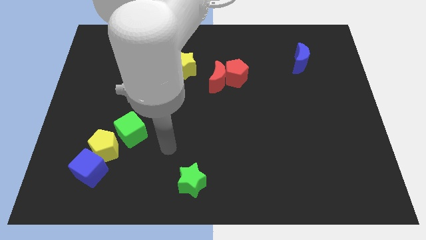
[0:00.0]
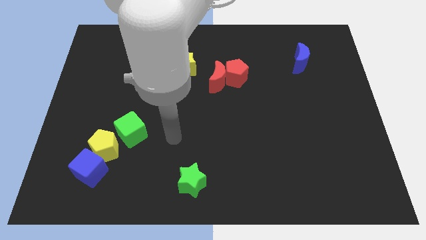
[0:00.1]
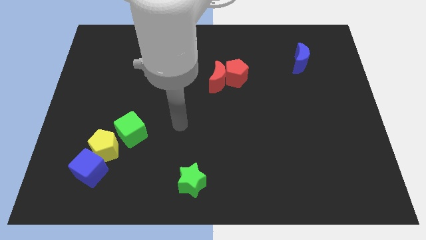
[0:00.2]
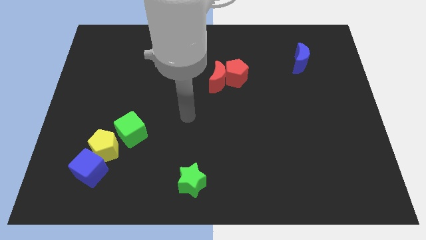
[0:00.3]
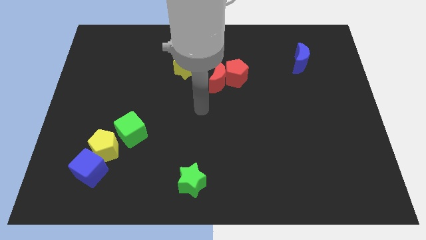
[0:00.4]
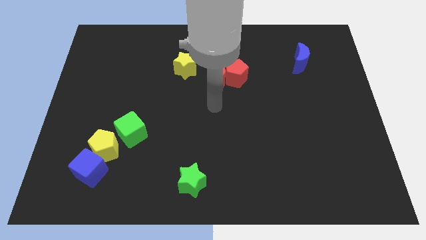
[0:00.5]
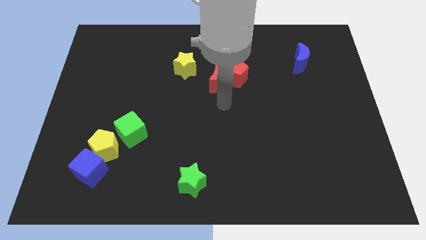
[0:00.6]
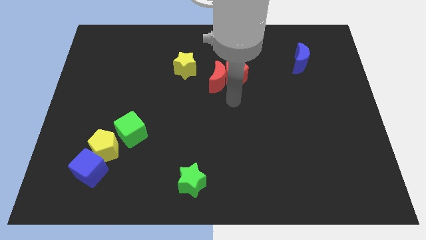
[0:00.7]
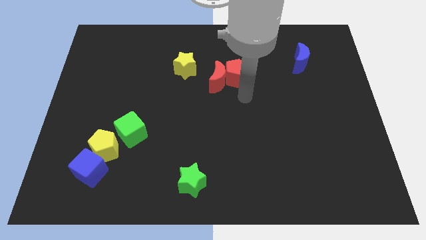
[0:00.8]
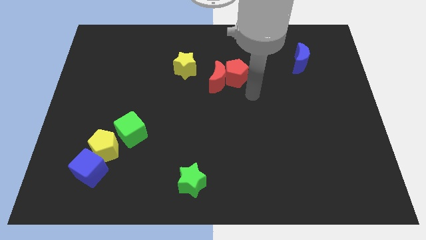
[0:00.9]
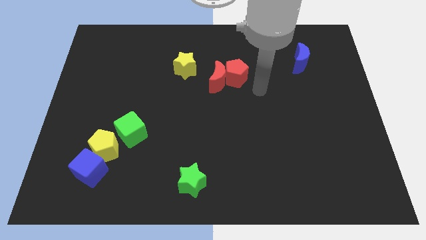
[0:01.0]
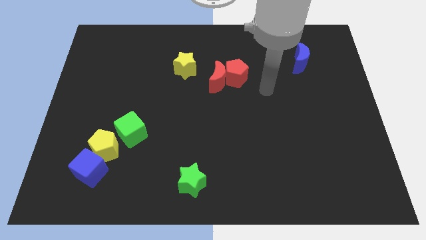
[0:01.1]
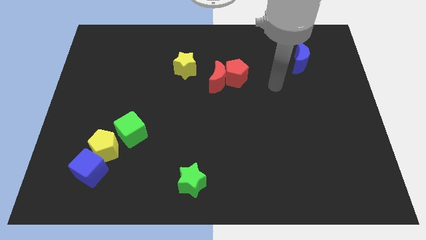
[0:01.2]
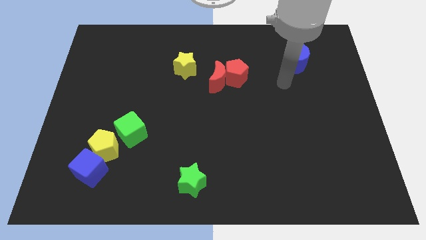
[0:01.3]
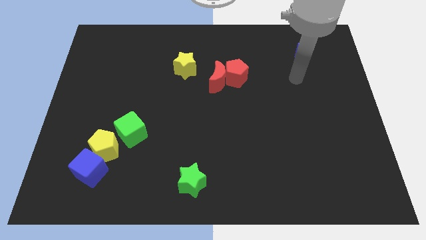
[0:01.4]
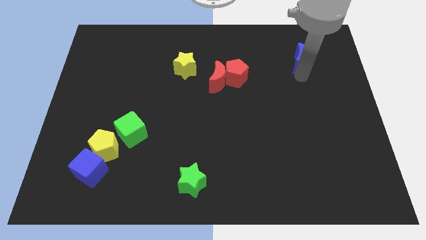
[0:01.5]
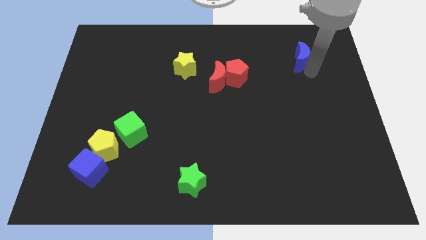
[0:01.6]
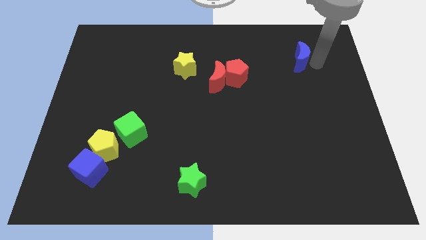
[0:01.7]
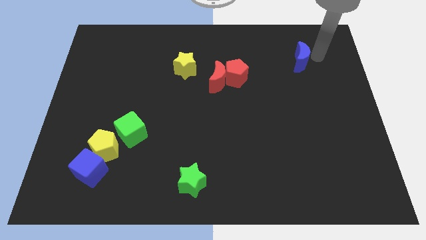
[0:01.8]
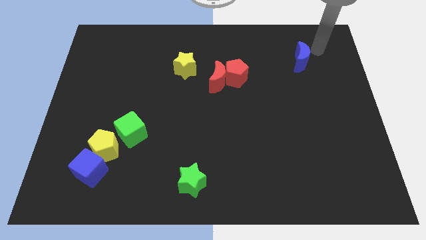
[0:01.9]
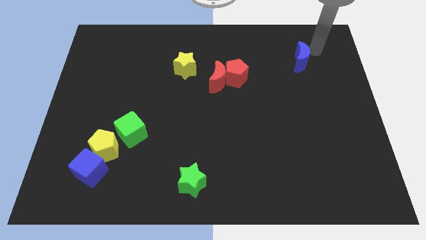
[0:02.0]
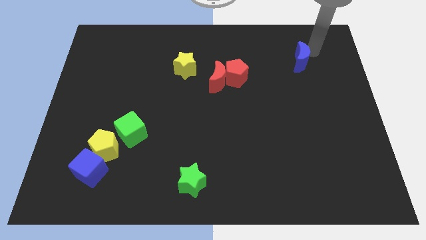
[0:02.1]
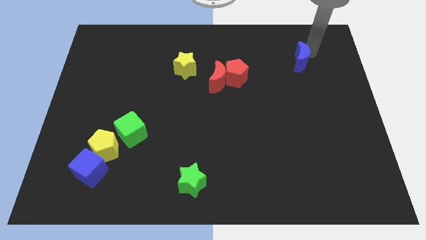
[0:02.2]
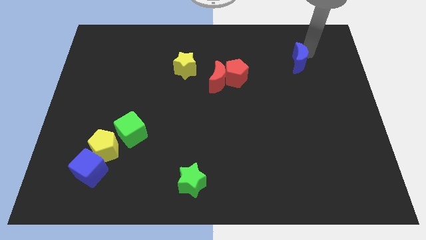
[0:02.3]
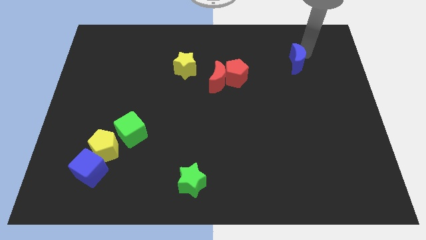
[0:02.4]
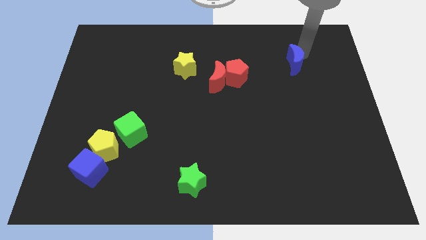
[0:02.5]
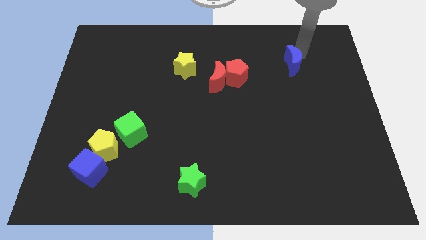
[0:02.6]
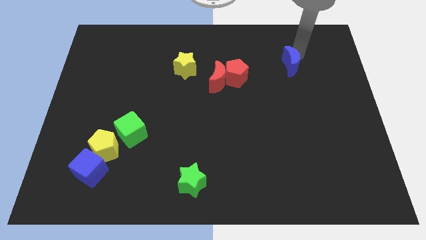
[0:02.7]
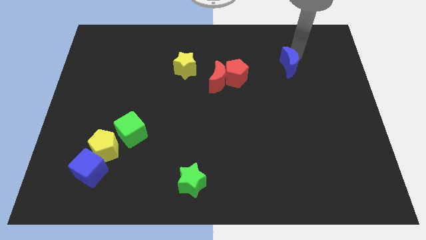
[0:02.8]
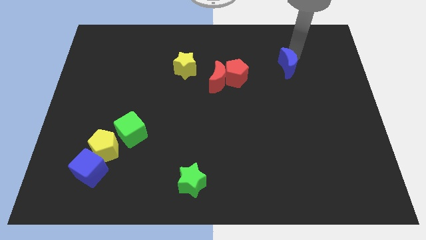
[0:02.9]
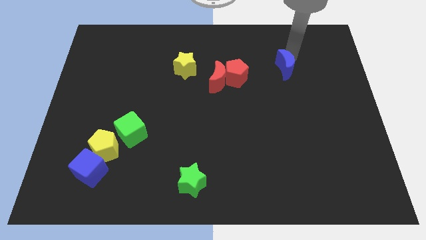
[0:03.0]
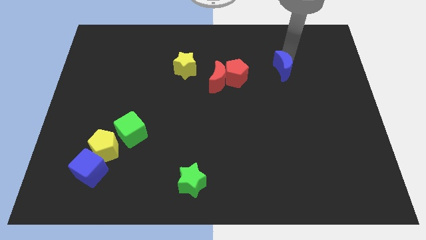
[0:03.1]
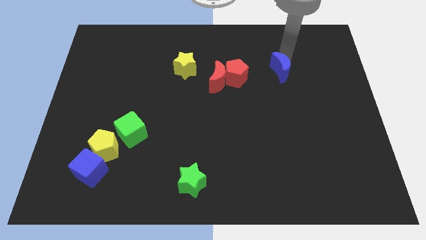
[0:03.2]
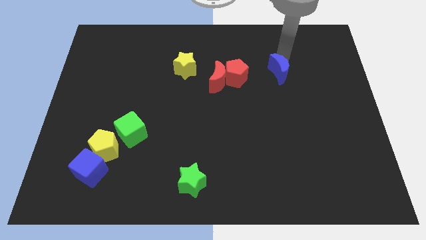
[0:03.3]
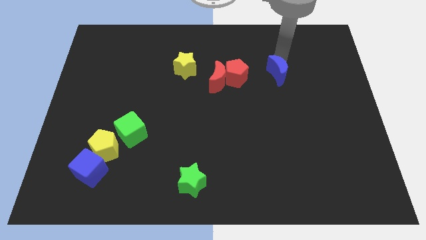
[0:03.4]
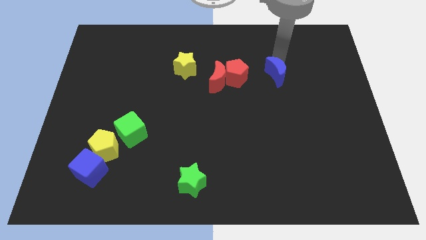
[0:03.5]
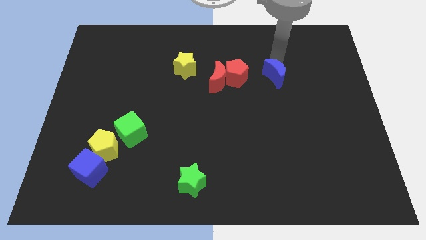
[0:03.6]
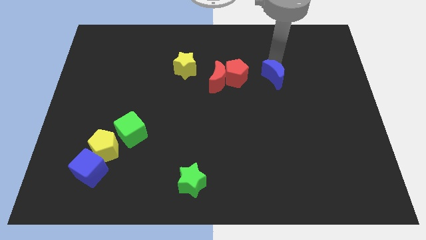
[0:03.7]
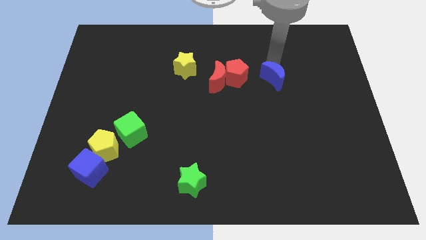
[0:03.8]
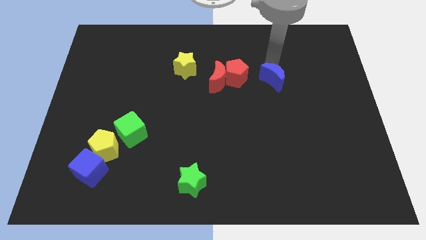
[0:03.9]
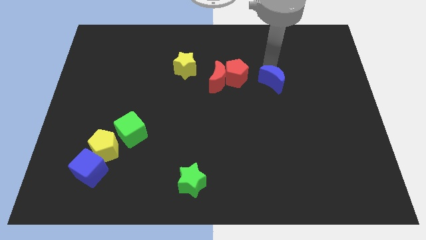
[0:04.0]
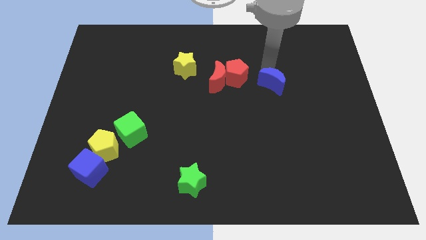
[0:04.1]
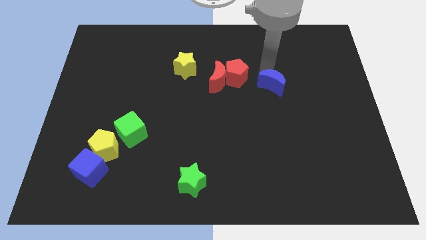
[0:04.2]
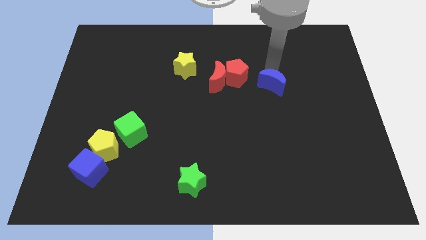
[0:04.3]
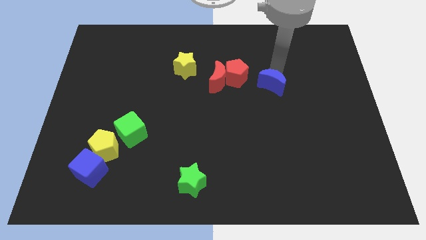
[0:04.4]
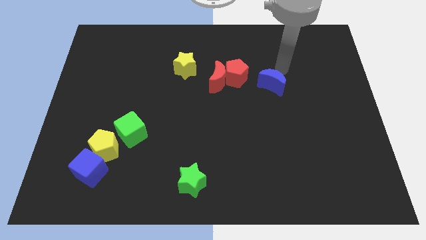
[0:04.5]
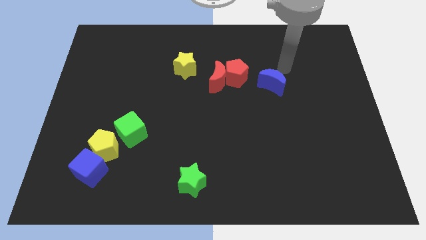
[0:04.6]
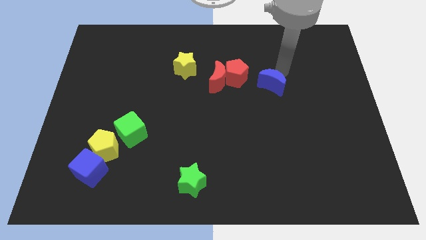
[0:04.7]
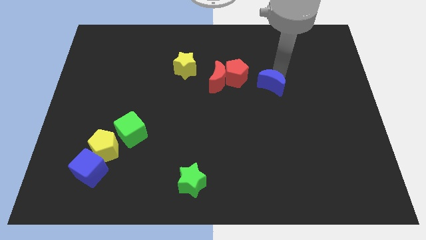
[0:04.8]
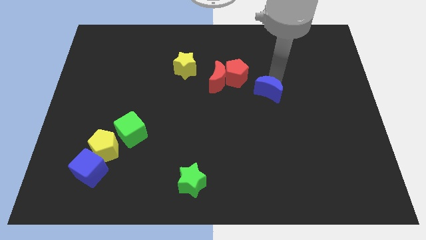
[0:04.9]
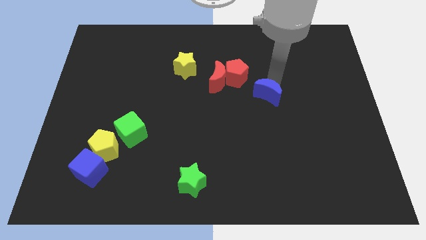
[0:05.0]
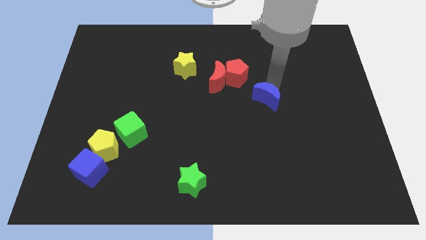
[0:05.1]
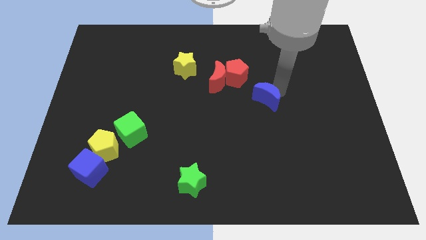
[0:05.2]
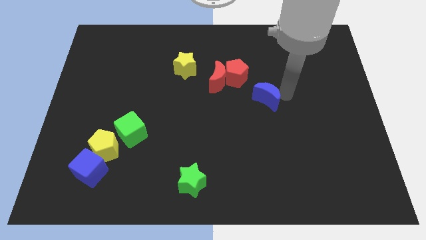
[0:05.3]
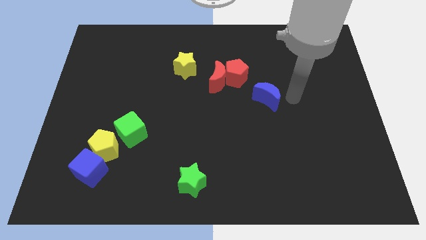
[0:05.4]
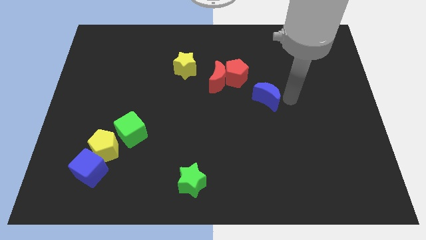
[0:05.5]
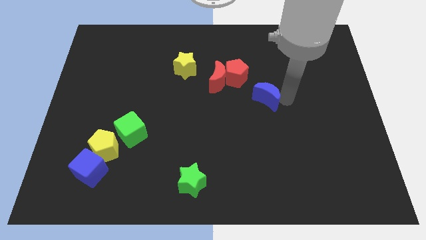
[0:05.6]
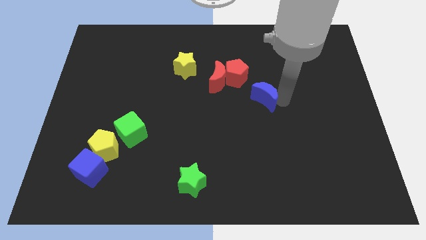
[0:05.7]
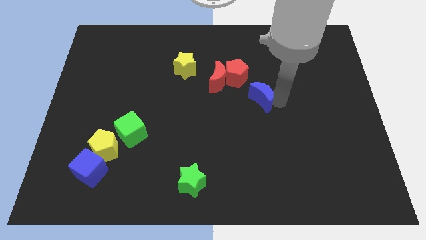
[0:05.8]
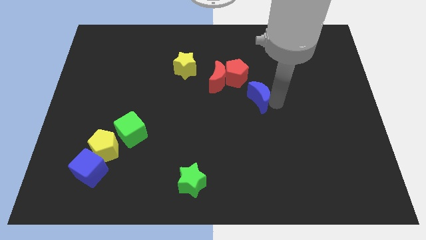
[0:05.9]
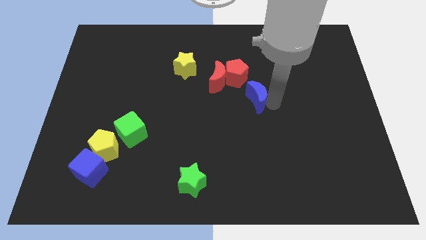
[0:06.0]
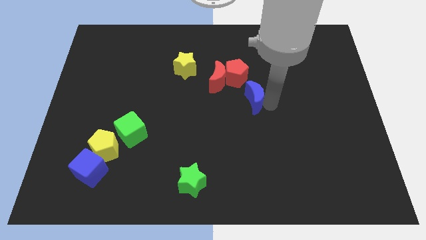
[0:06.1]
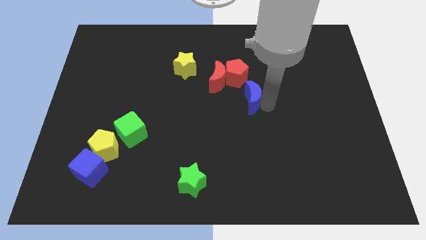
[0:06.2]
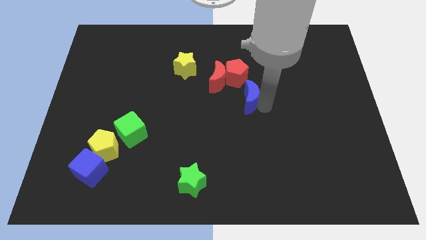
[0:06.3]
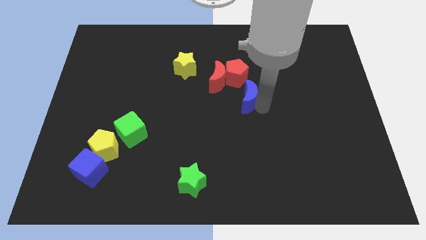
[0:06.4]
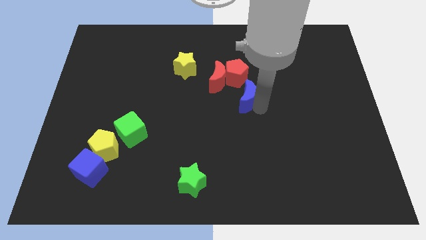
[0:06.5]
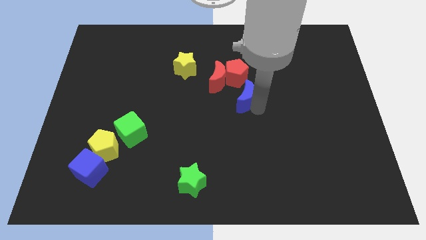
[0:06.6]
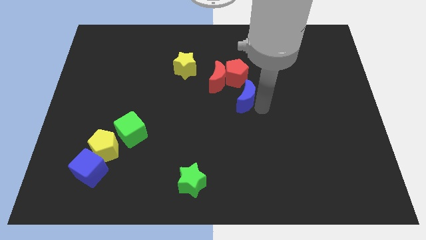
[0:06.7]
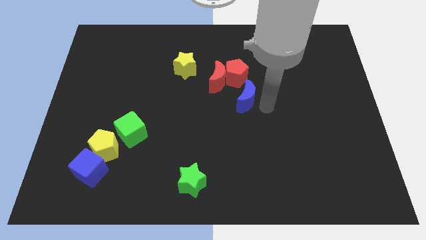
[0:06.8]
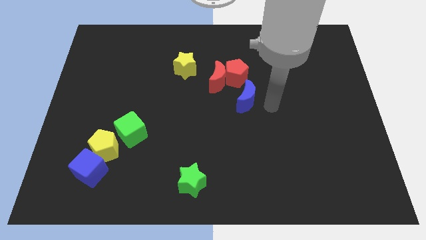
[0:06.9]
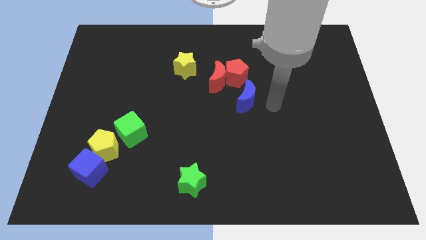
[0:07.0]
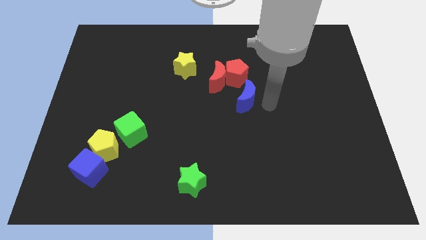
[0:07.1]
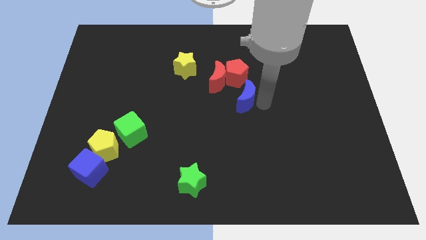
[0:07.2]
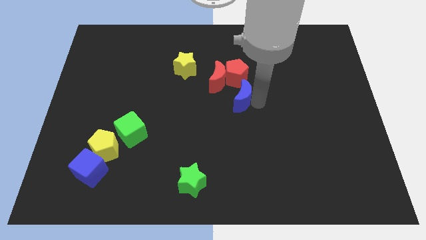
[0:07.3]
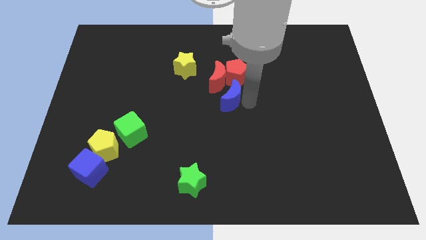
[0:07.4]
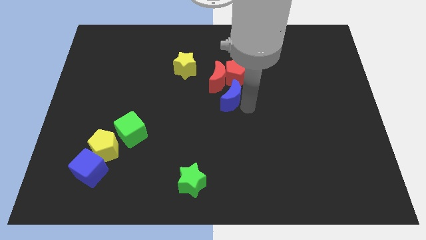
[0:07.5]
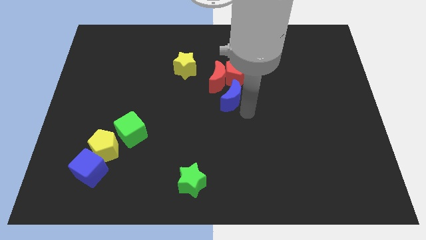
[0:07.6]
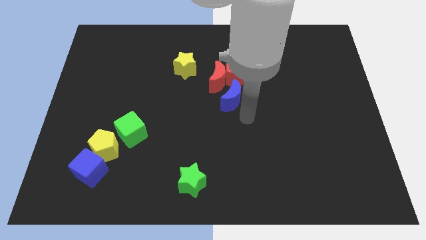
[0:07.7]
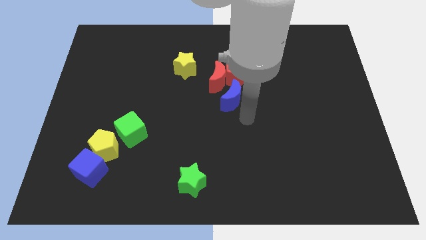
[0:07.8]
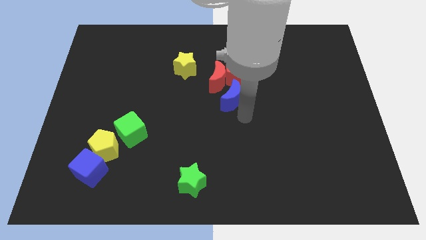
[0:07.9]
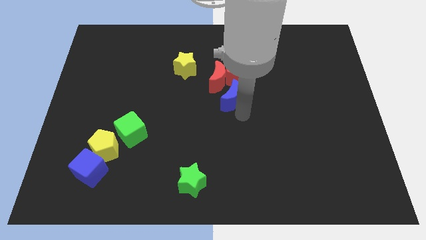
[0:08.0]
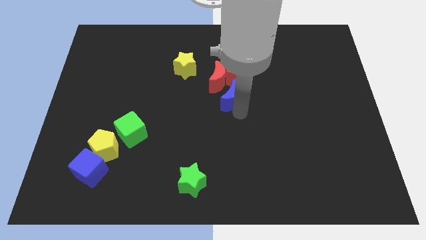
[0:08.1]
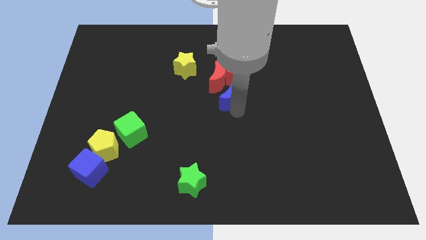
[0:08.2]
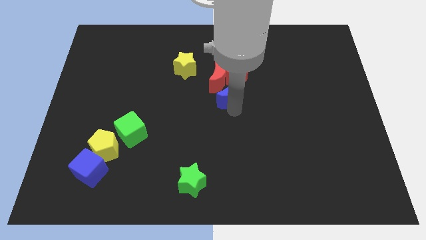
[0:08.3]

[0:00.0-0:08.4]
put the blue moon towards the red moon

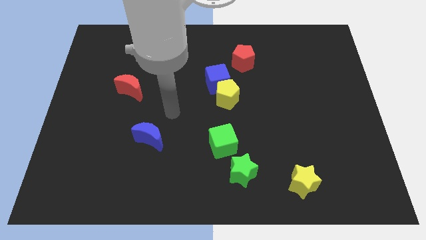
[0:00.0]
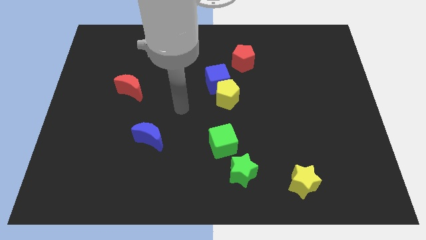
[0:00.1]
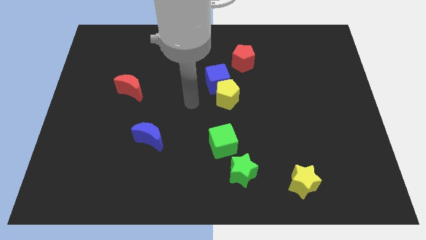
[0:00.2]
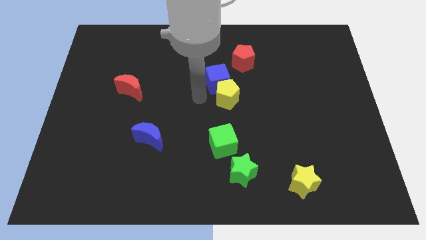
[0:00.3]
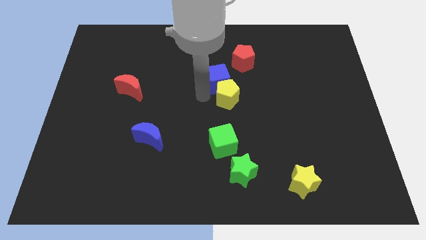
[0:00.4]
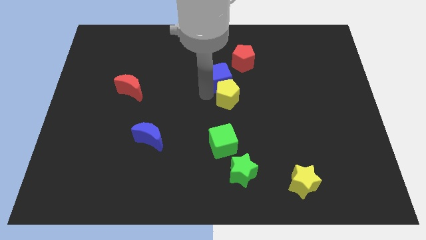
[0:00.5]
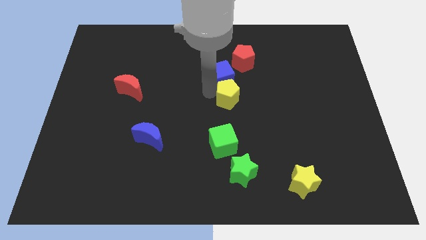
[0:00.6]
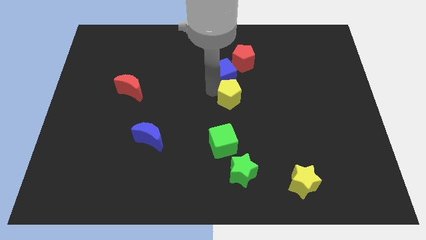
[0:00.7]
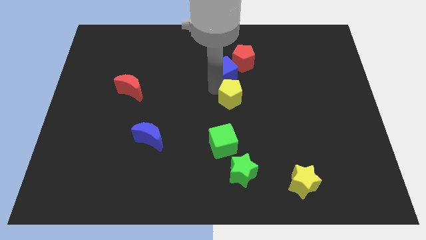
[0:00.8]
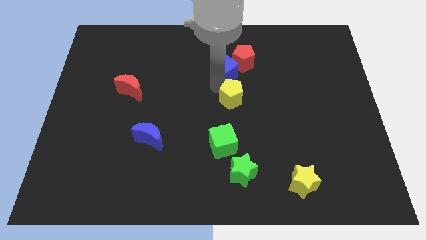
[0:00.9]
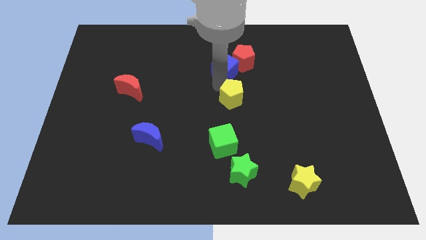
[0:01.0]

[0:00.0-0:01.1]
push the blue cube to the red pentagon
